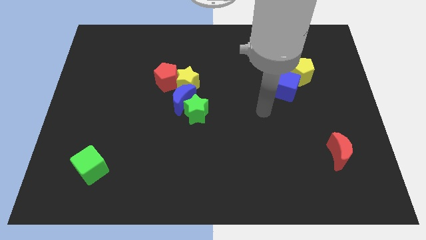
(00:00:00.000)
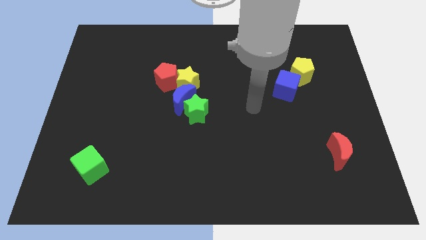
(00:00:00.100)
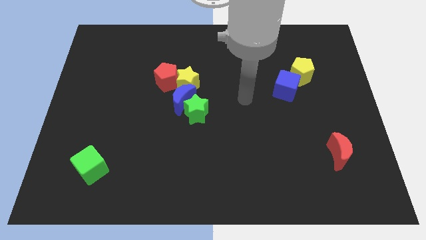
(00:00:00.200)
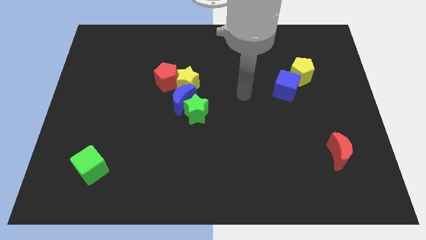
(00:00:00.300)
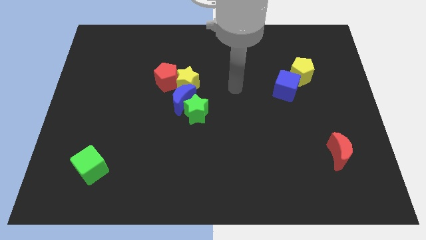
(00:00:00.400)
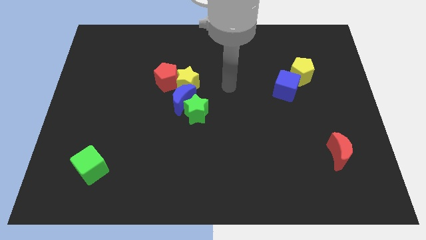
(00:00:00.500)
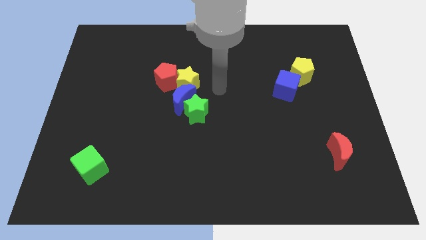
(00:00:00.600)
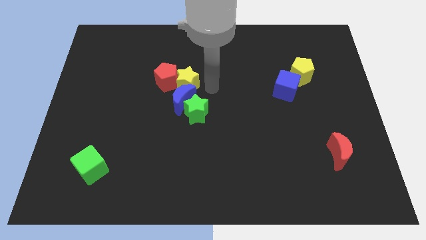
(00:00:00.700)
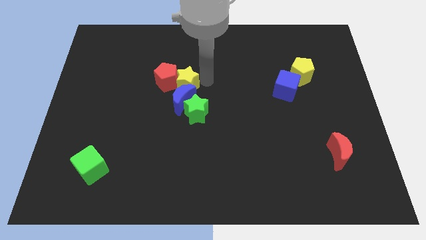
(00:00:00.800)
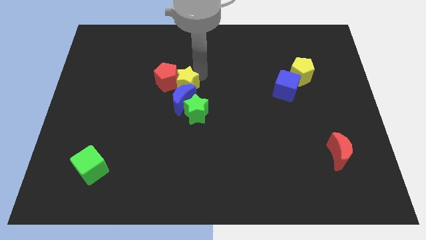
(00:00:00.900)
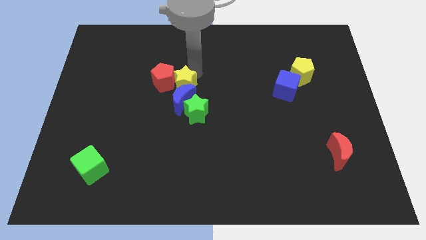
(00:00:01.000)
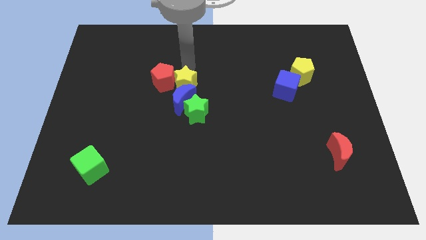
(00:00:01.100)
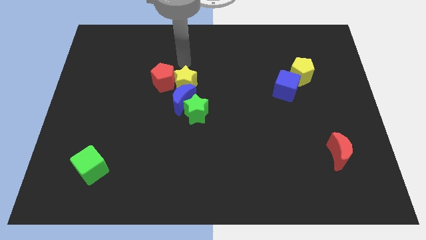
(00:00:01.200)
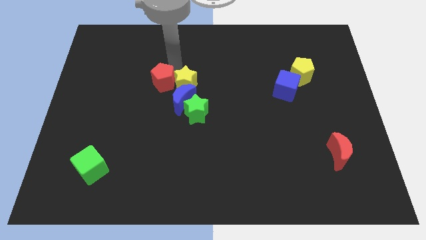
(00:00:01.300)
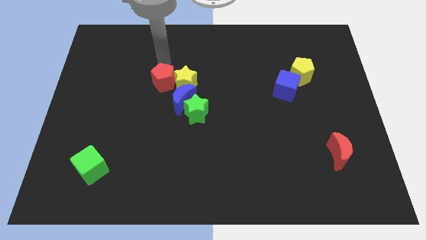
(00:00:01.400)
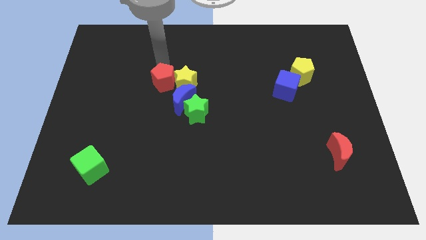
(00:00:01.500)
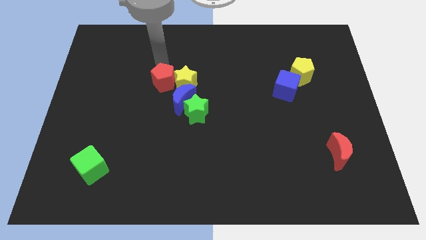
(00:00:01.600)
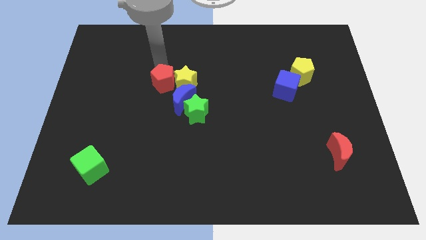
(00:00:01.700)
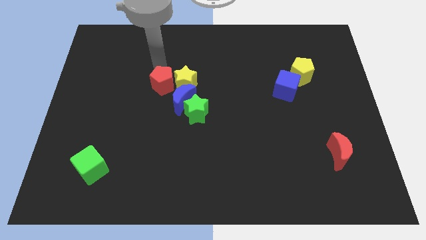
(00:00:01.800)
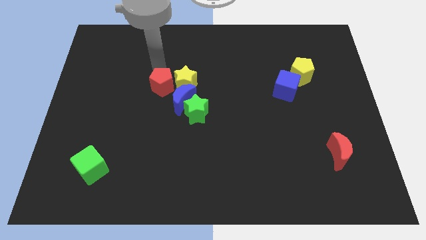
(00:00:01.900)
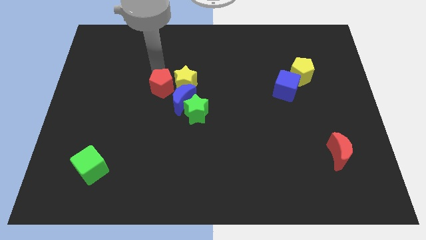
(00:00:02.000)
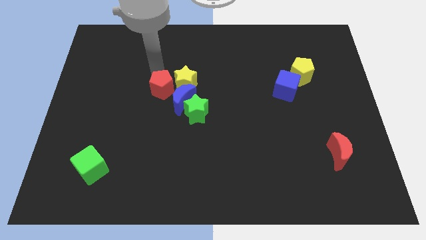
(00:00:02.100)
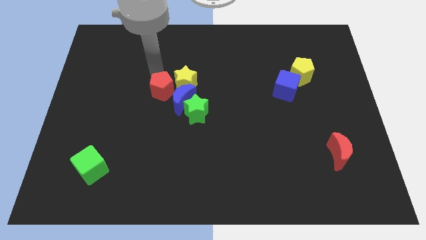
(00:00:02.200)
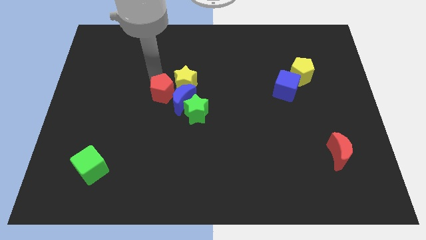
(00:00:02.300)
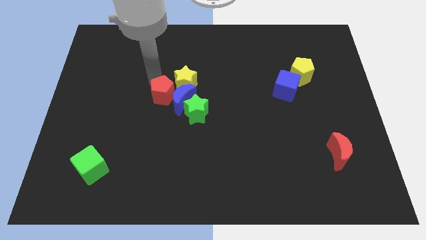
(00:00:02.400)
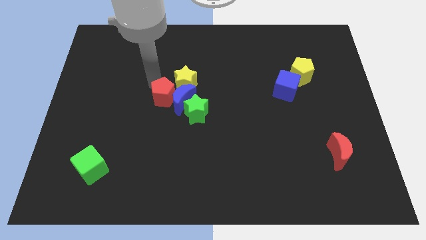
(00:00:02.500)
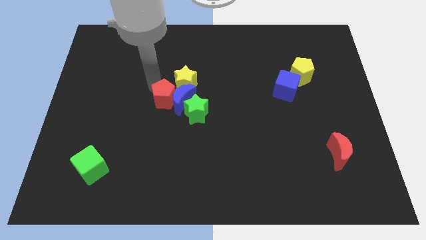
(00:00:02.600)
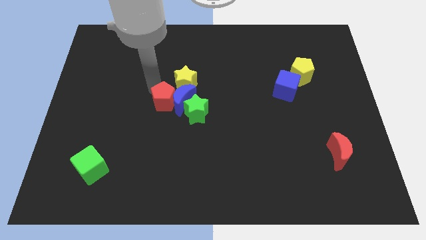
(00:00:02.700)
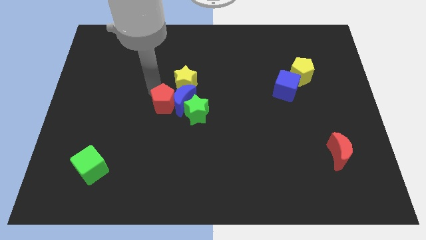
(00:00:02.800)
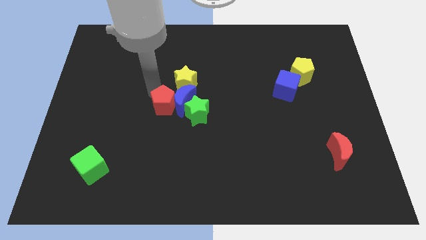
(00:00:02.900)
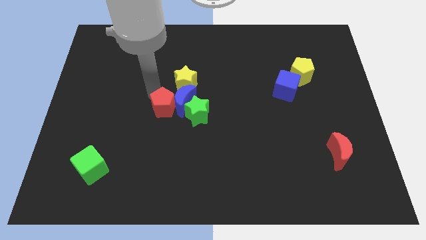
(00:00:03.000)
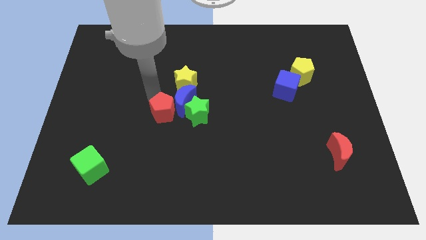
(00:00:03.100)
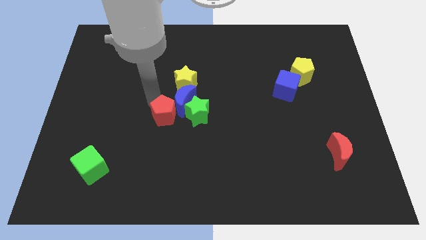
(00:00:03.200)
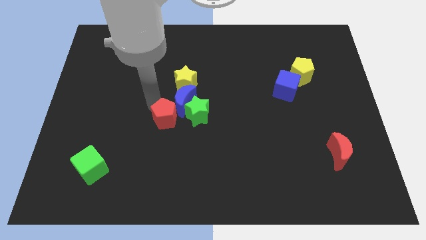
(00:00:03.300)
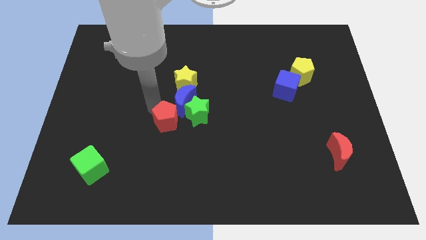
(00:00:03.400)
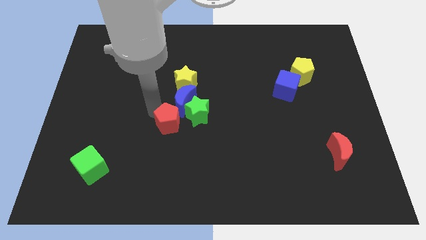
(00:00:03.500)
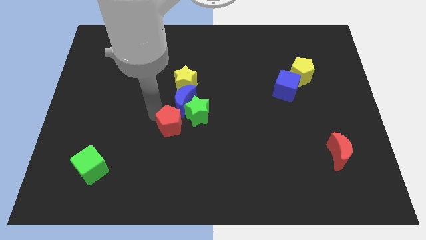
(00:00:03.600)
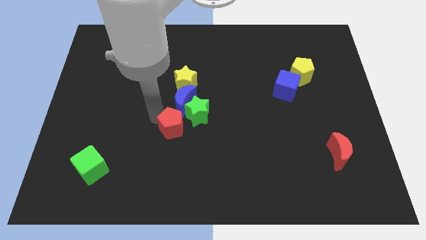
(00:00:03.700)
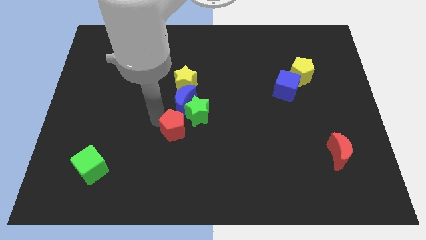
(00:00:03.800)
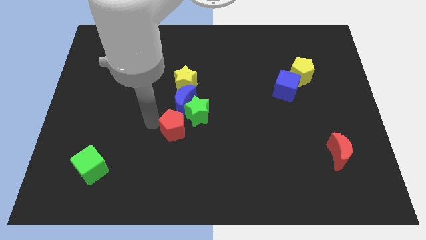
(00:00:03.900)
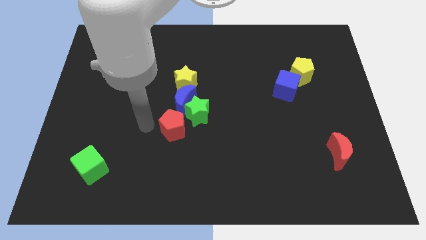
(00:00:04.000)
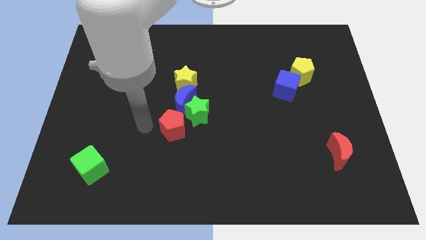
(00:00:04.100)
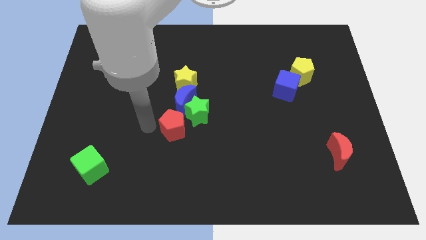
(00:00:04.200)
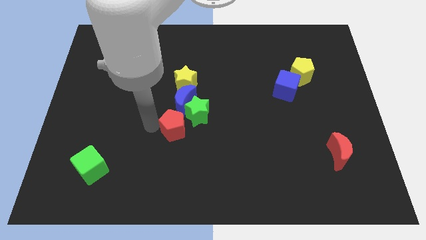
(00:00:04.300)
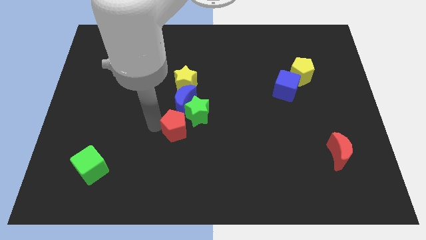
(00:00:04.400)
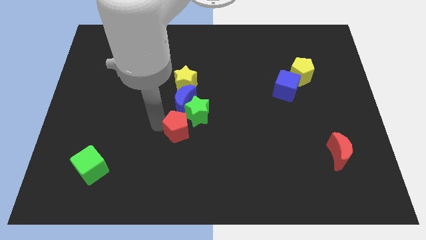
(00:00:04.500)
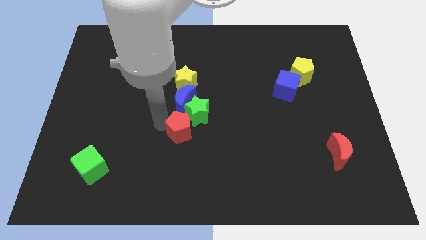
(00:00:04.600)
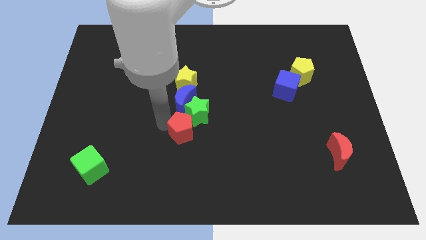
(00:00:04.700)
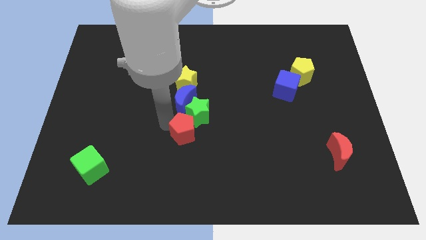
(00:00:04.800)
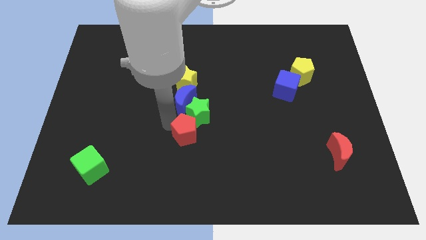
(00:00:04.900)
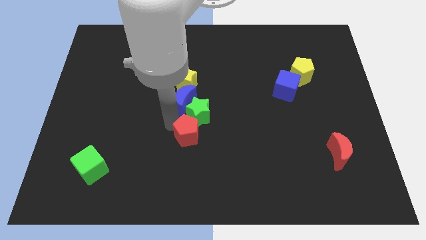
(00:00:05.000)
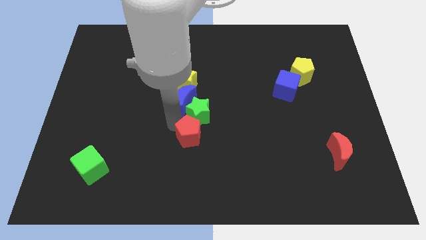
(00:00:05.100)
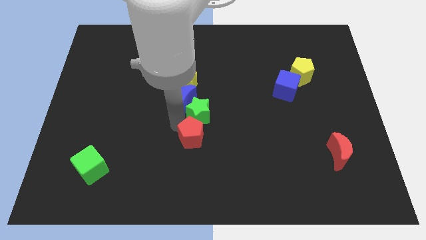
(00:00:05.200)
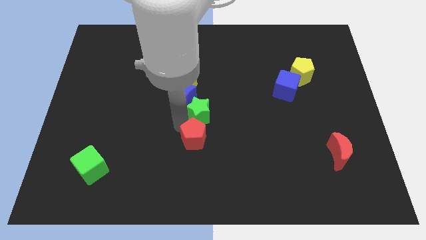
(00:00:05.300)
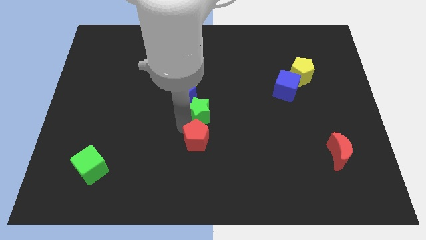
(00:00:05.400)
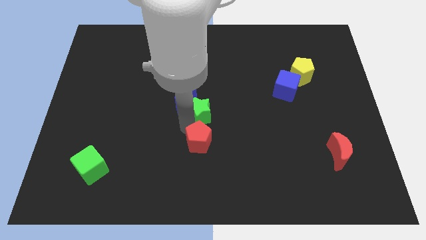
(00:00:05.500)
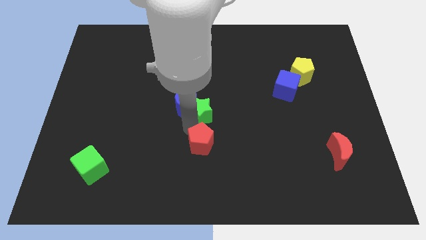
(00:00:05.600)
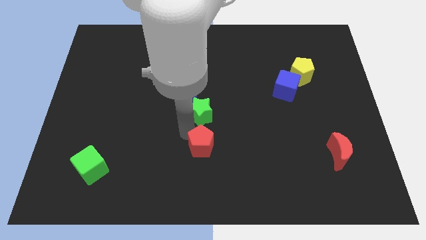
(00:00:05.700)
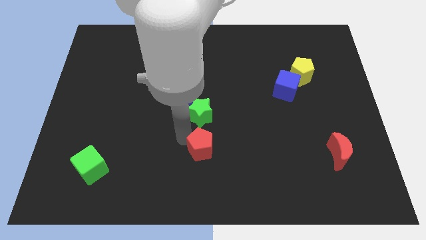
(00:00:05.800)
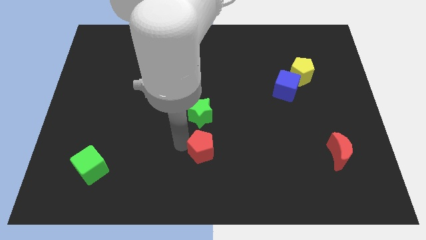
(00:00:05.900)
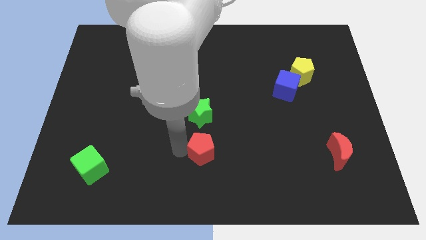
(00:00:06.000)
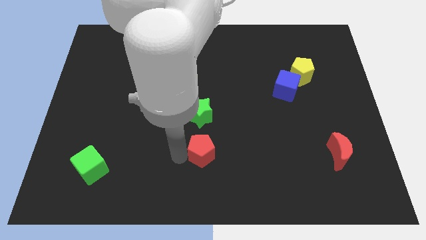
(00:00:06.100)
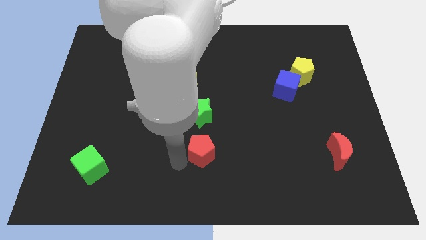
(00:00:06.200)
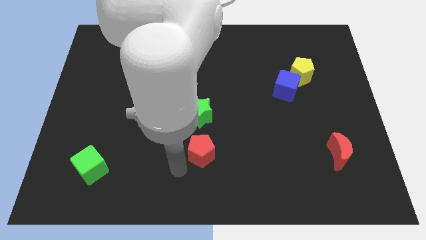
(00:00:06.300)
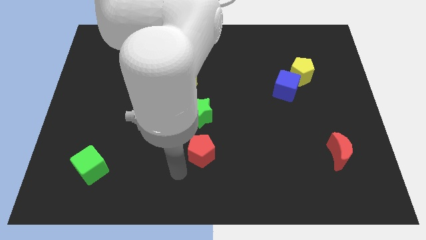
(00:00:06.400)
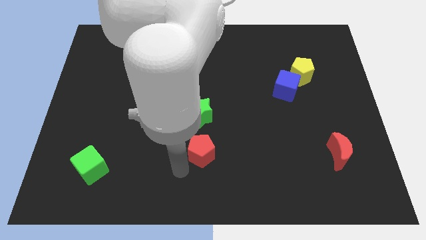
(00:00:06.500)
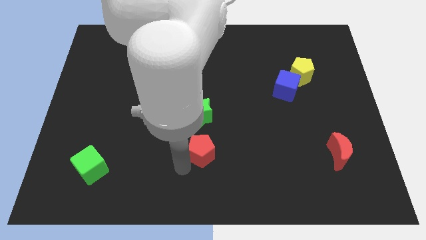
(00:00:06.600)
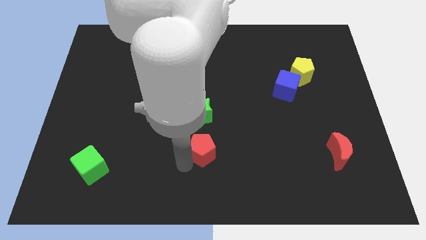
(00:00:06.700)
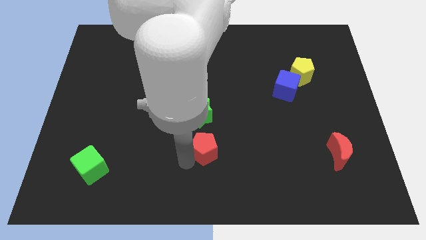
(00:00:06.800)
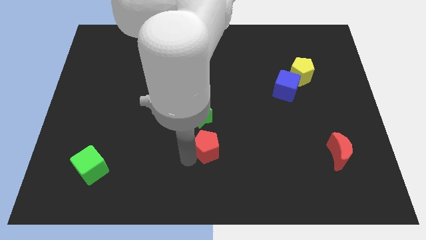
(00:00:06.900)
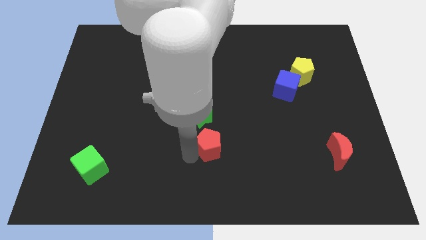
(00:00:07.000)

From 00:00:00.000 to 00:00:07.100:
push the red pentagon to the bottom right side of the green star
